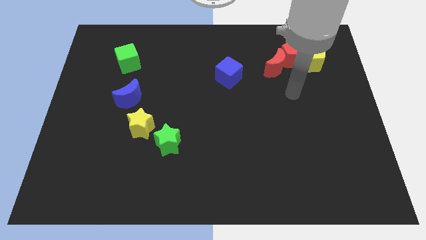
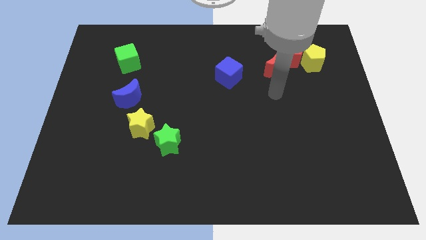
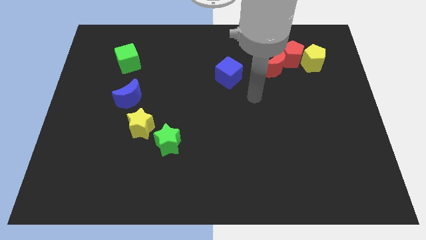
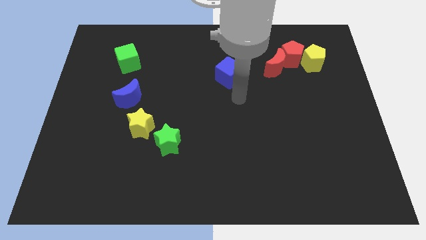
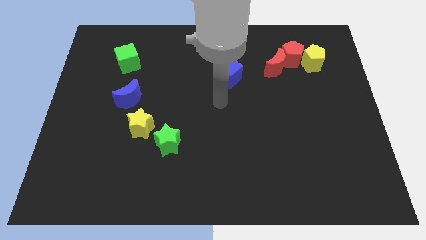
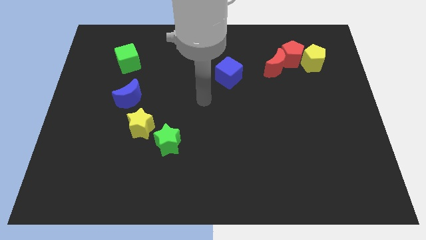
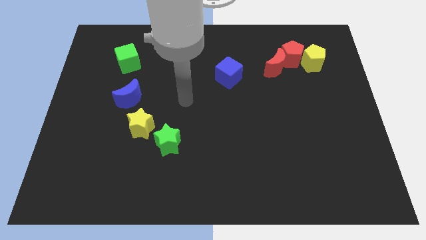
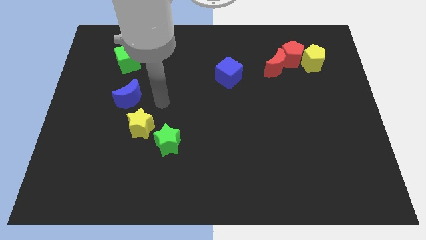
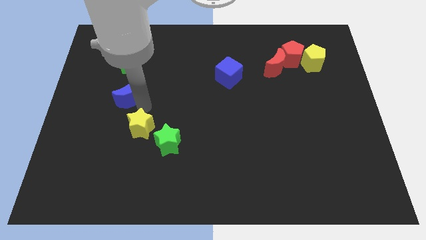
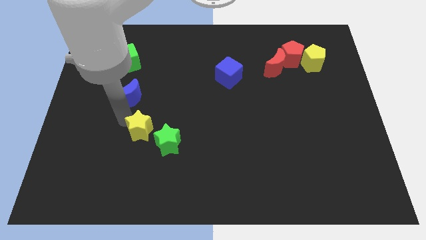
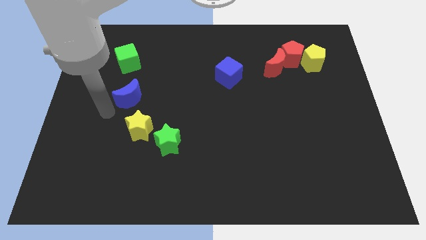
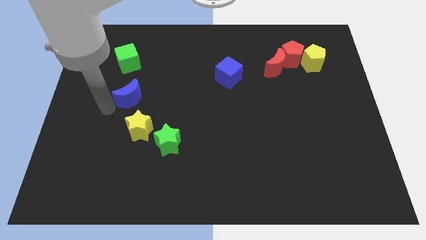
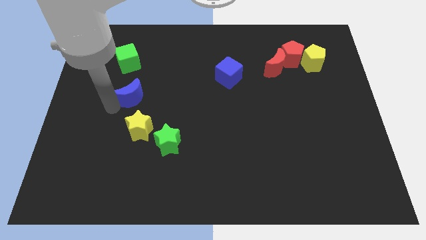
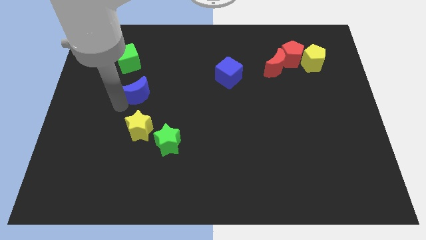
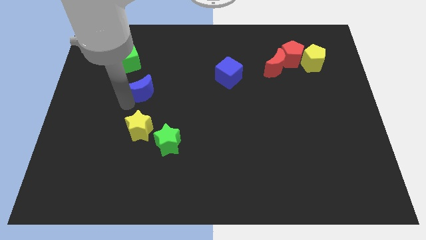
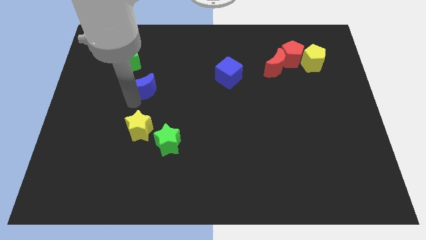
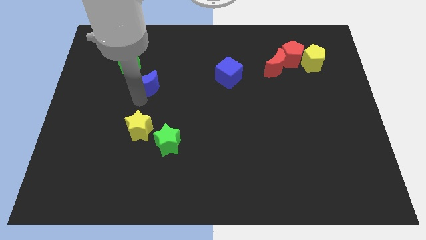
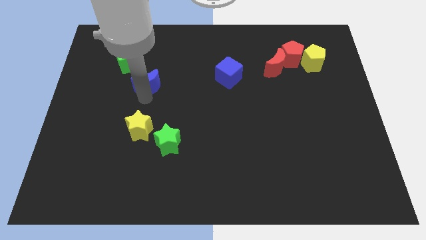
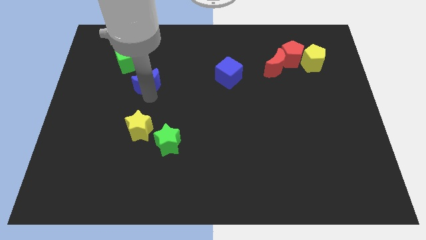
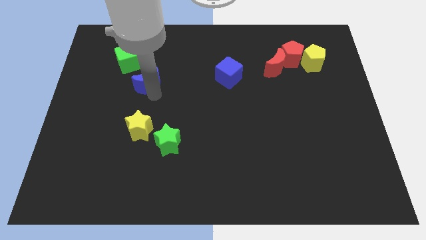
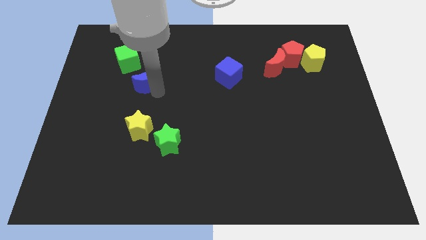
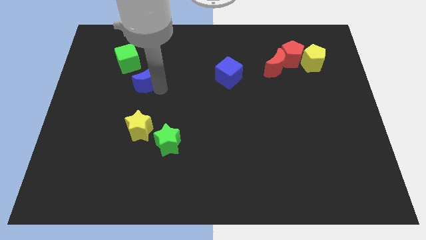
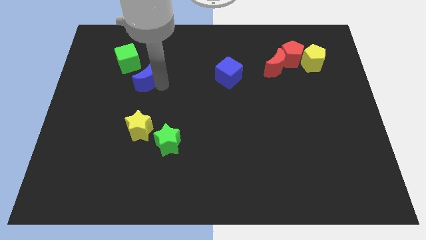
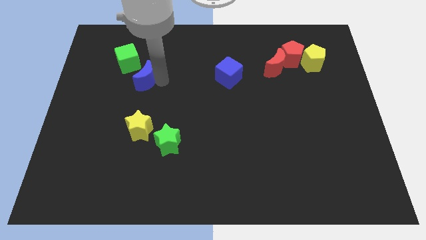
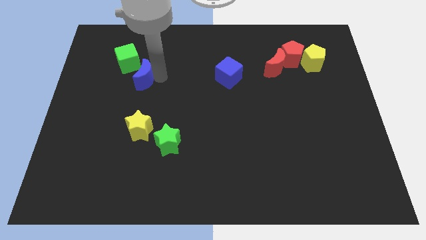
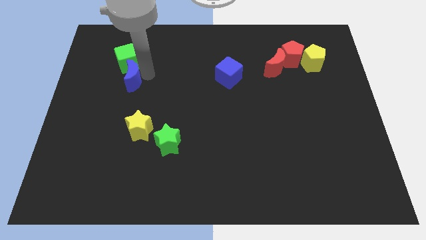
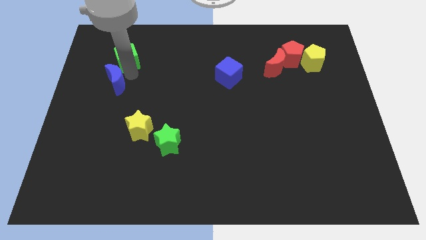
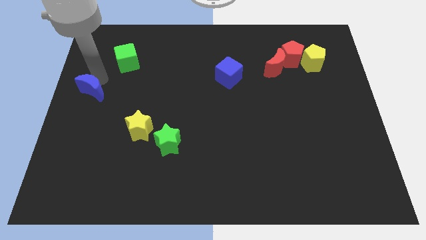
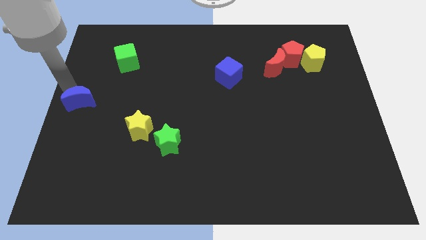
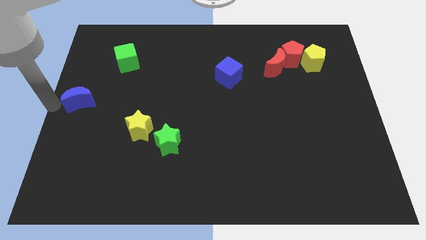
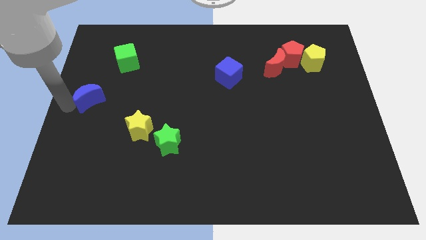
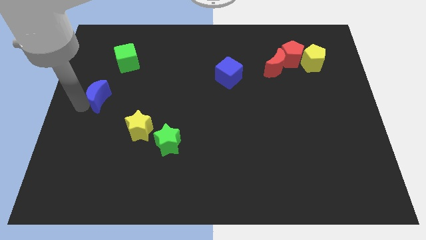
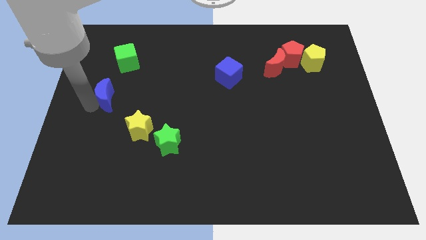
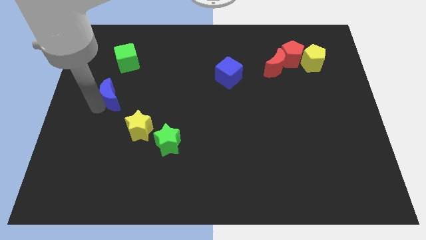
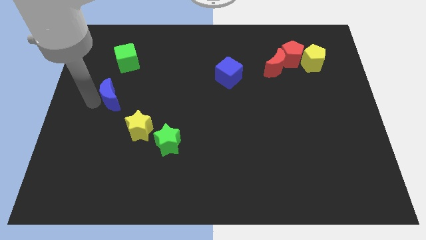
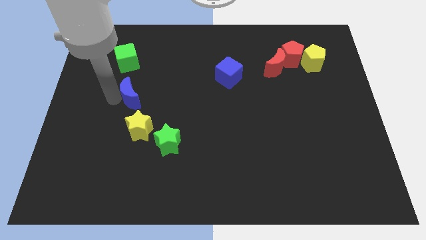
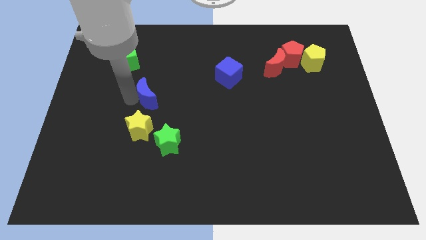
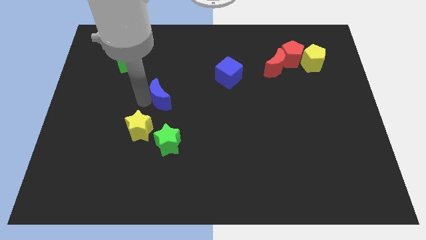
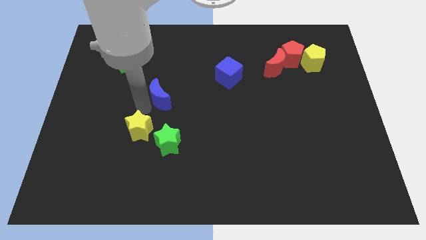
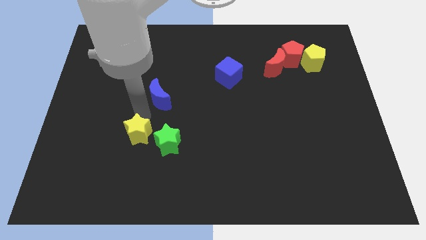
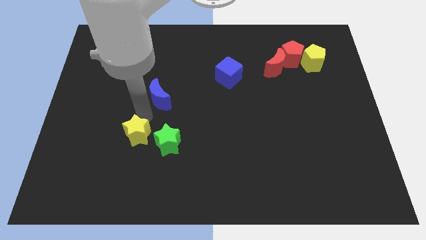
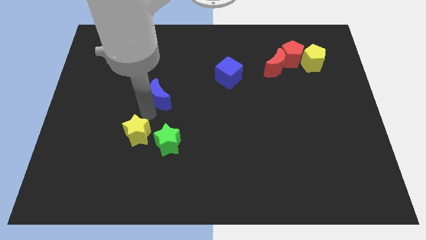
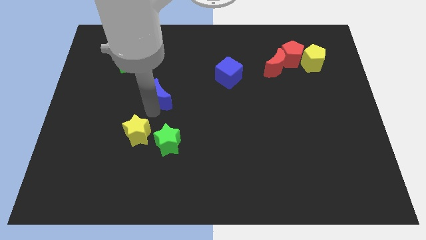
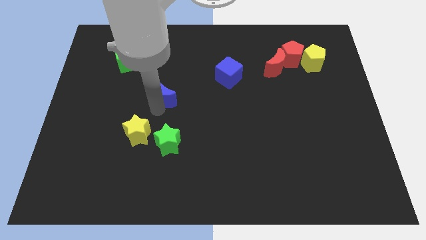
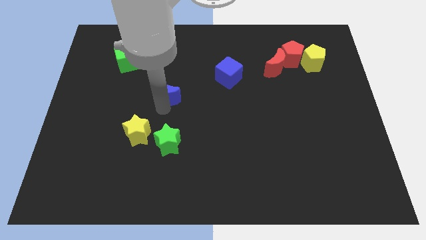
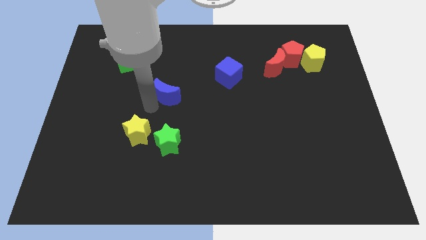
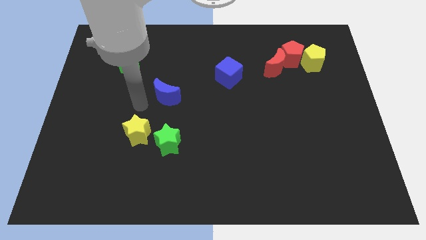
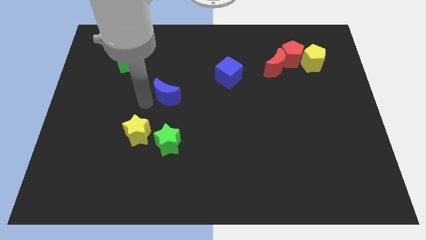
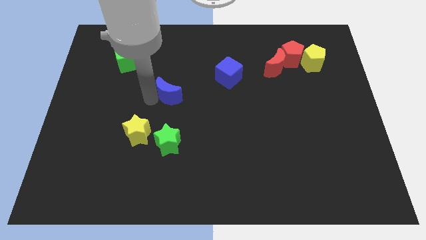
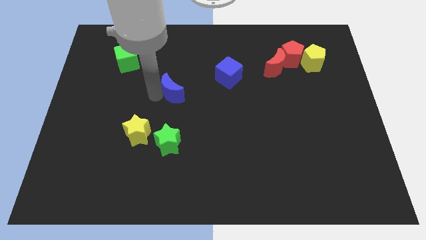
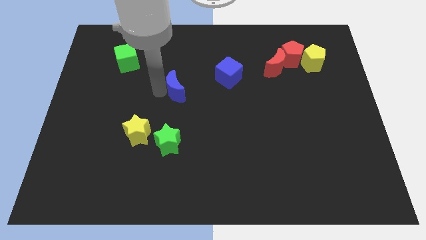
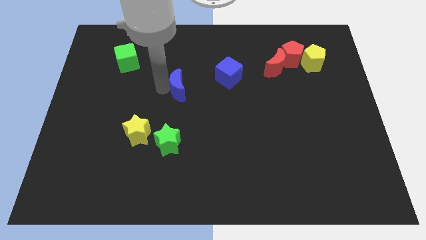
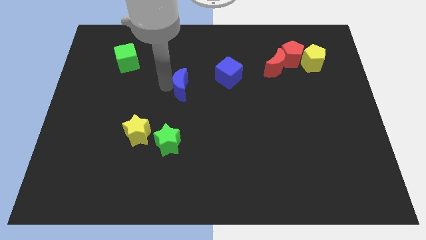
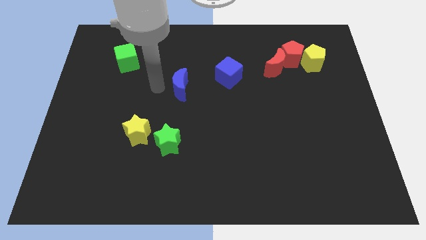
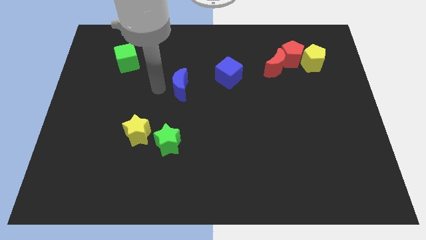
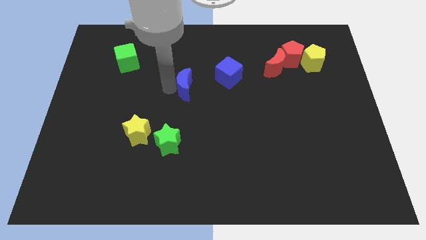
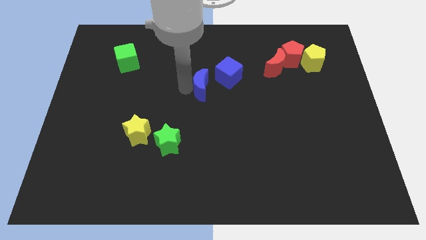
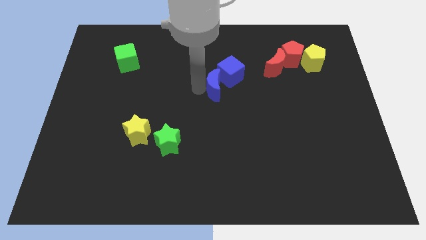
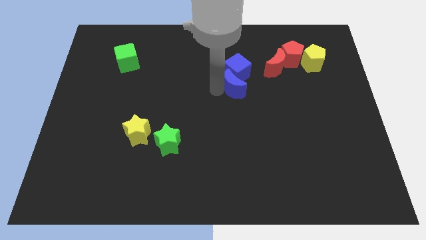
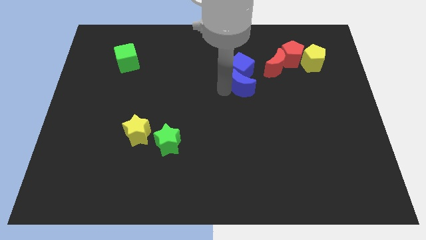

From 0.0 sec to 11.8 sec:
push the blue moon diagonally down and to the left of the red moon
